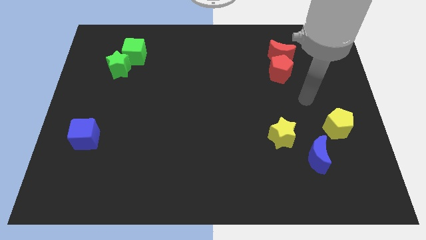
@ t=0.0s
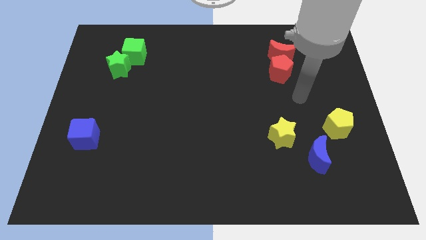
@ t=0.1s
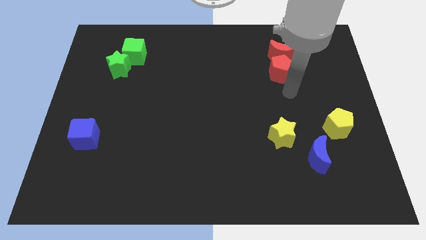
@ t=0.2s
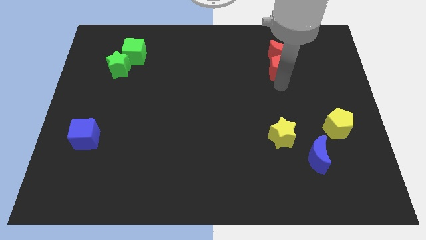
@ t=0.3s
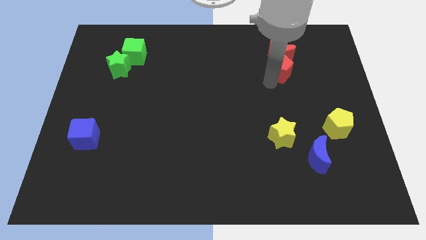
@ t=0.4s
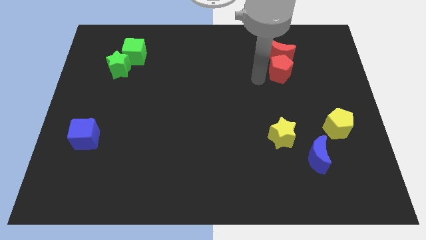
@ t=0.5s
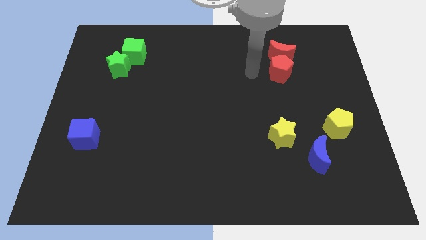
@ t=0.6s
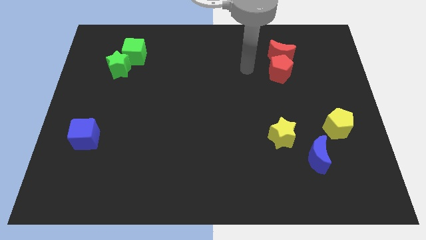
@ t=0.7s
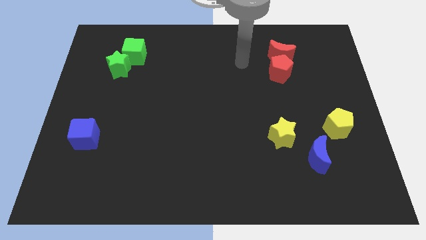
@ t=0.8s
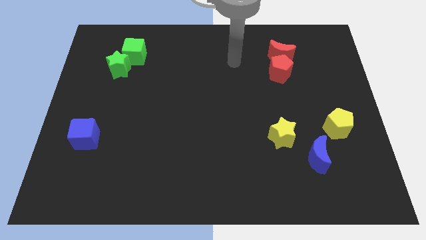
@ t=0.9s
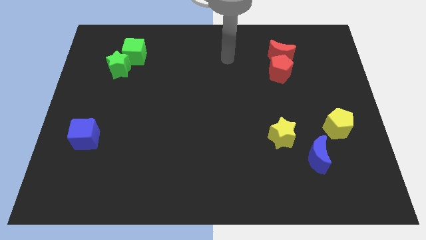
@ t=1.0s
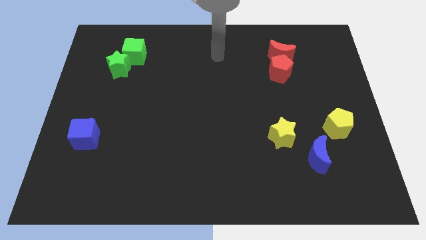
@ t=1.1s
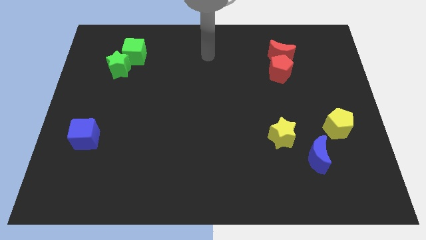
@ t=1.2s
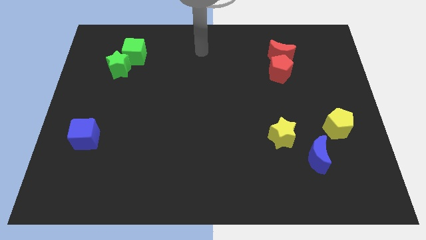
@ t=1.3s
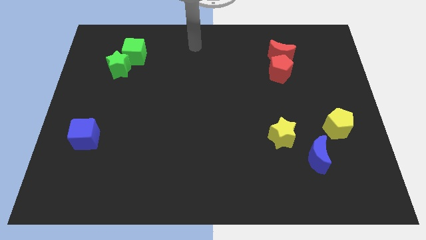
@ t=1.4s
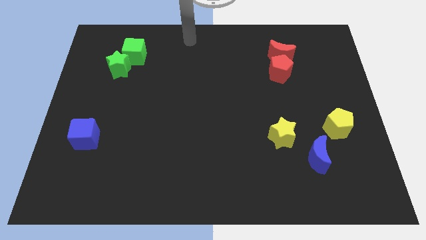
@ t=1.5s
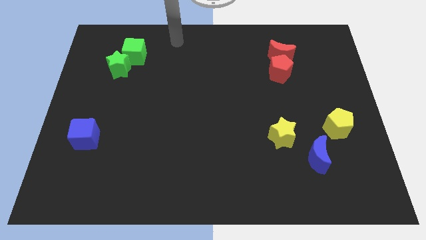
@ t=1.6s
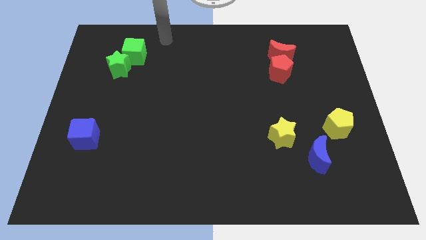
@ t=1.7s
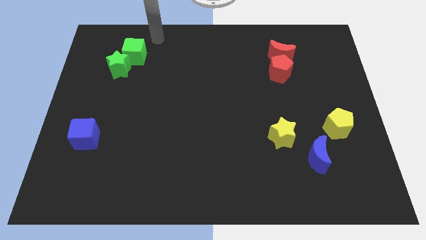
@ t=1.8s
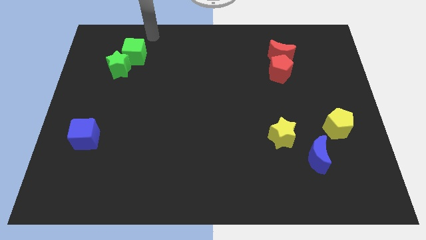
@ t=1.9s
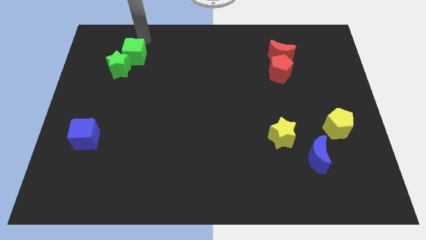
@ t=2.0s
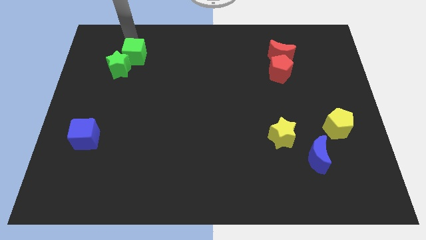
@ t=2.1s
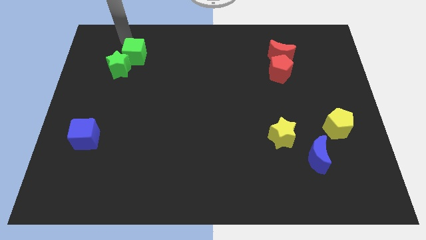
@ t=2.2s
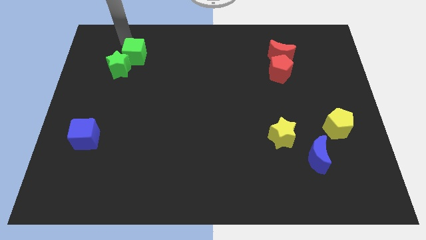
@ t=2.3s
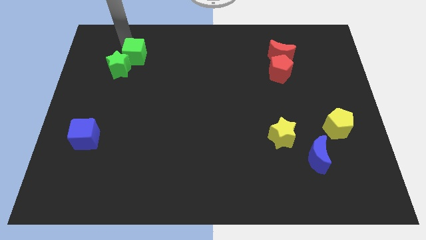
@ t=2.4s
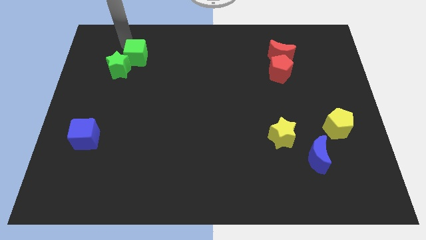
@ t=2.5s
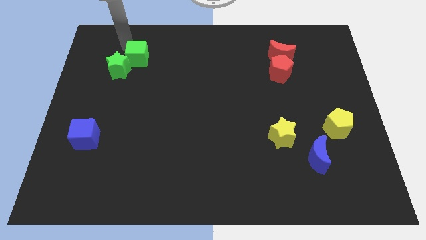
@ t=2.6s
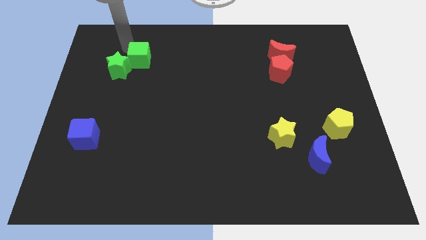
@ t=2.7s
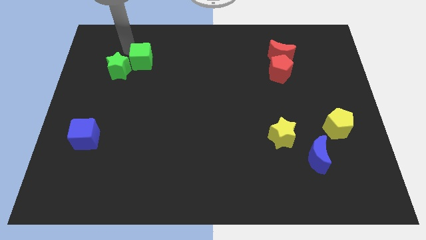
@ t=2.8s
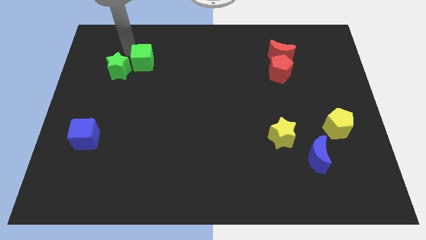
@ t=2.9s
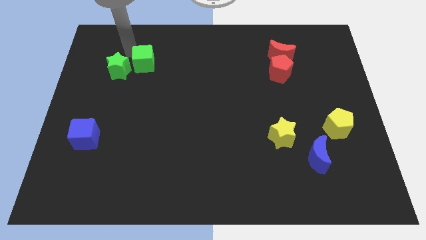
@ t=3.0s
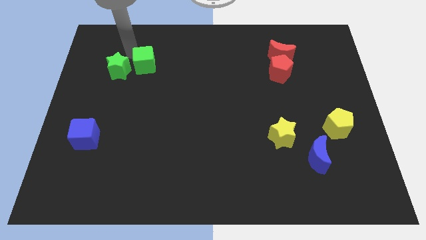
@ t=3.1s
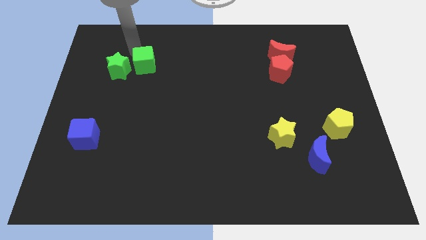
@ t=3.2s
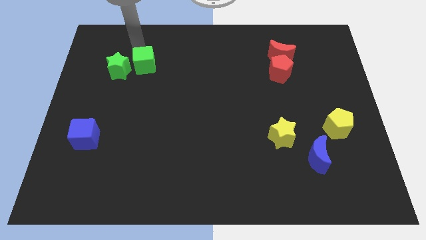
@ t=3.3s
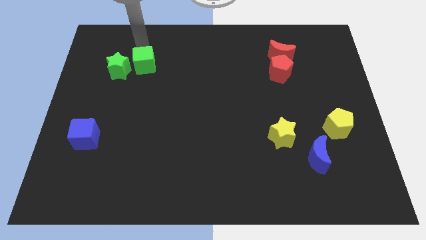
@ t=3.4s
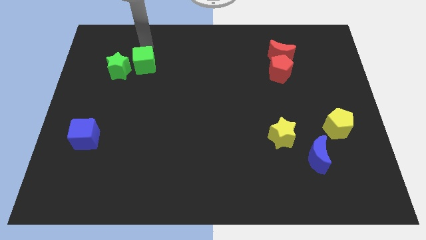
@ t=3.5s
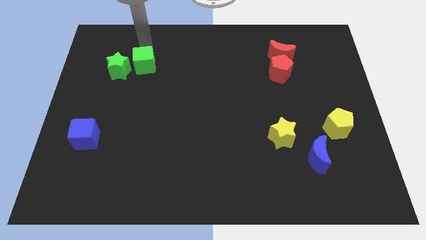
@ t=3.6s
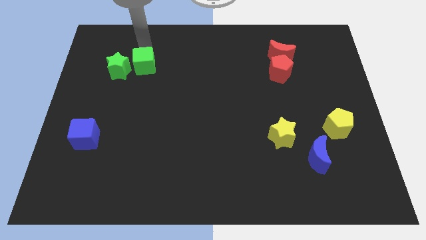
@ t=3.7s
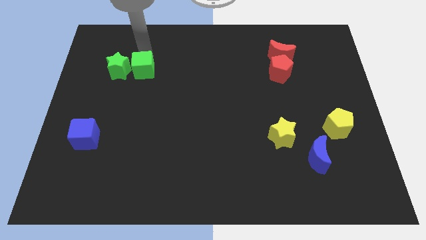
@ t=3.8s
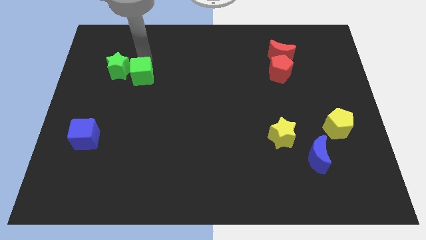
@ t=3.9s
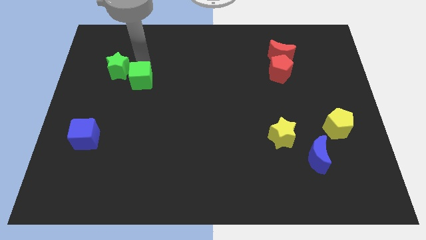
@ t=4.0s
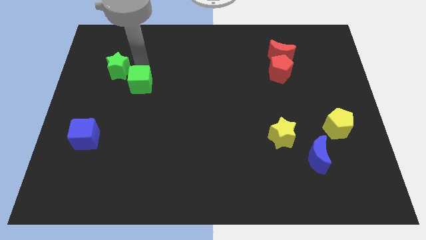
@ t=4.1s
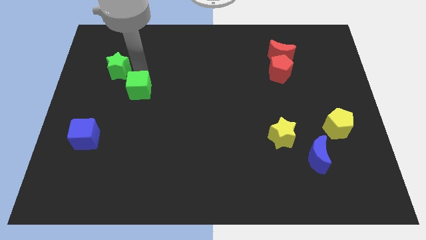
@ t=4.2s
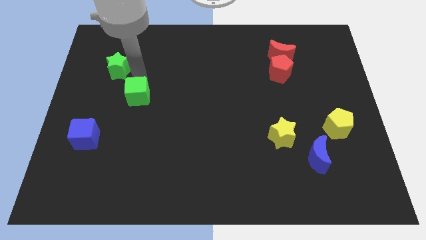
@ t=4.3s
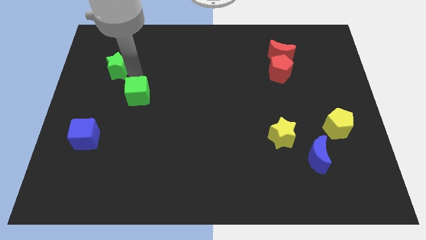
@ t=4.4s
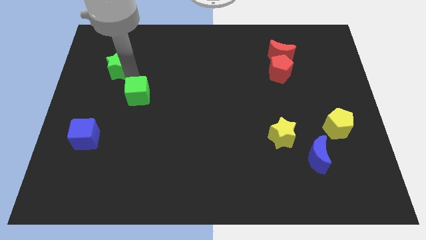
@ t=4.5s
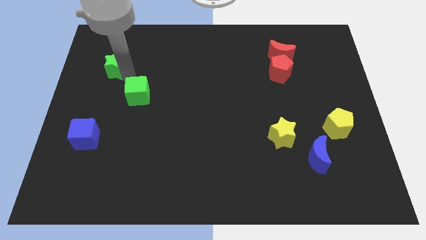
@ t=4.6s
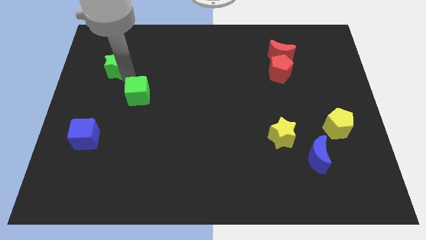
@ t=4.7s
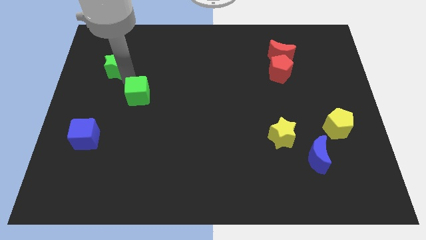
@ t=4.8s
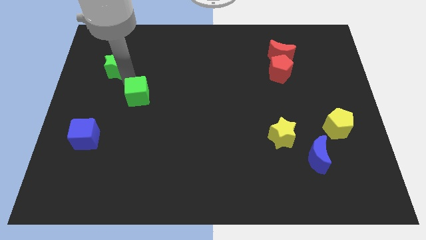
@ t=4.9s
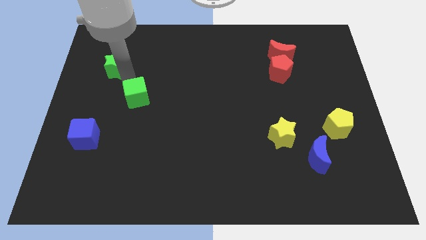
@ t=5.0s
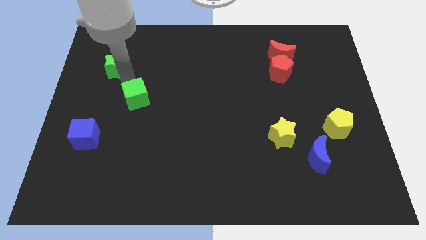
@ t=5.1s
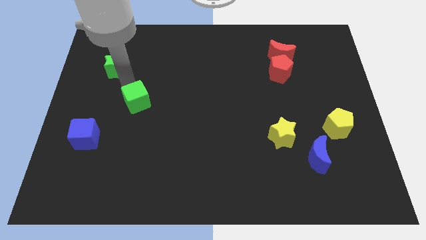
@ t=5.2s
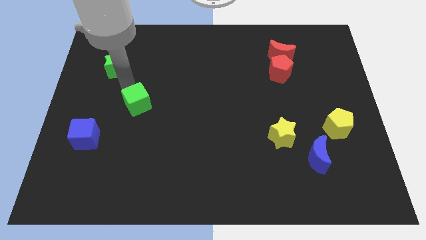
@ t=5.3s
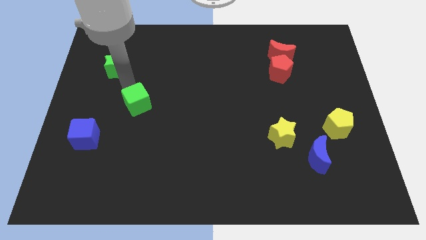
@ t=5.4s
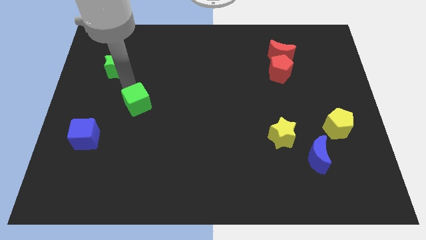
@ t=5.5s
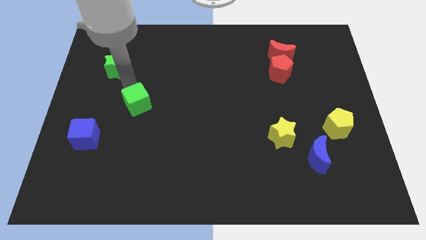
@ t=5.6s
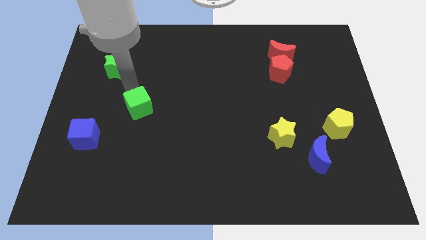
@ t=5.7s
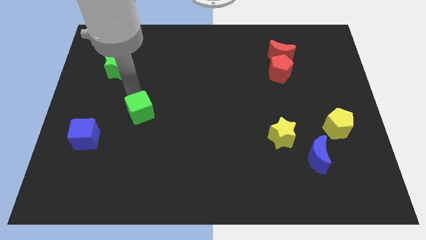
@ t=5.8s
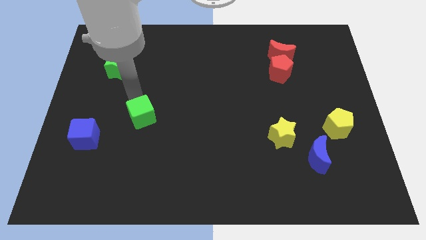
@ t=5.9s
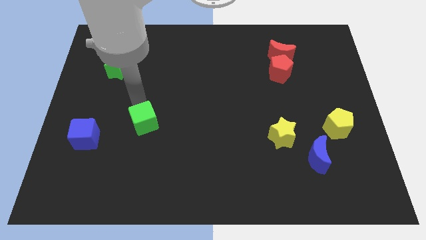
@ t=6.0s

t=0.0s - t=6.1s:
slide the green cube downwards

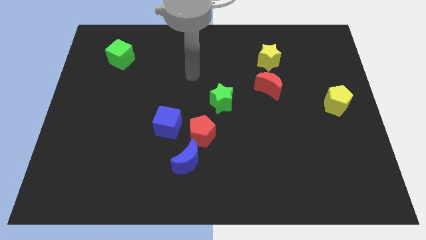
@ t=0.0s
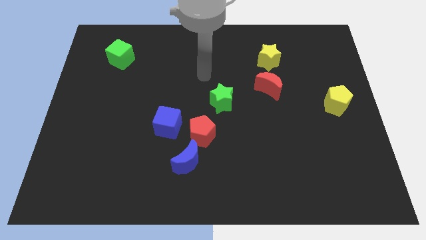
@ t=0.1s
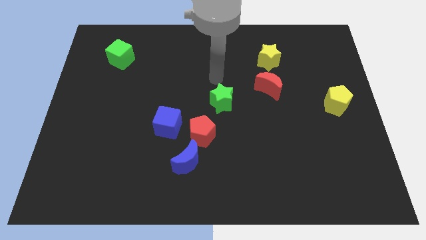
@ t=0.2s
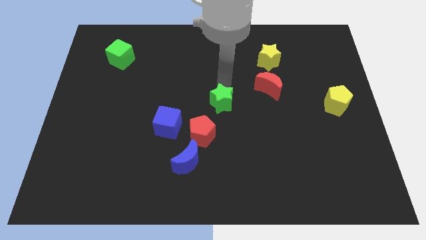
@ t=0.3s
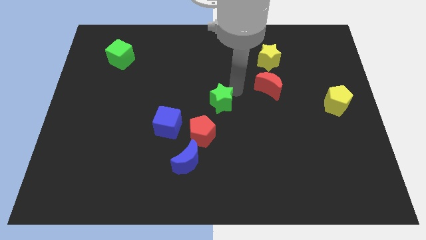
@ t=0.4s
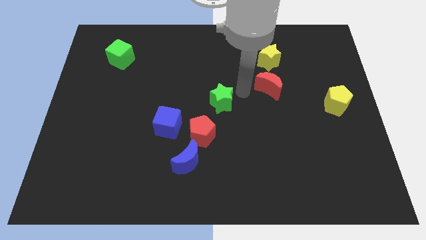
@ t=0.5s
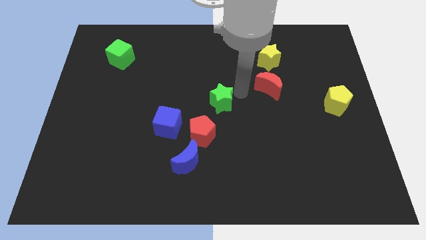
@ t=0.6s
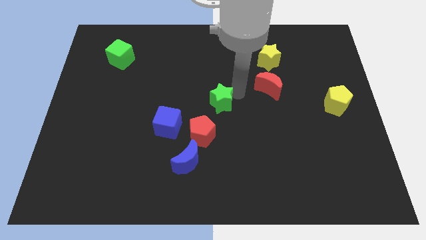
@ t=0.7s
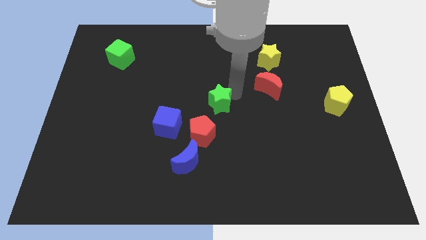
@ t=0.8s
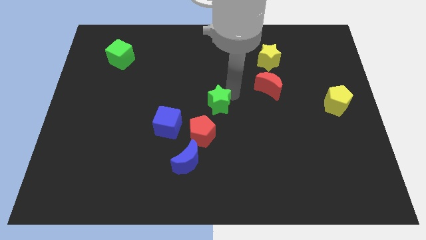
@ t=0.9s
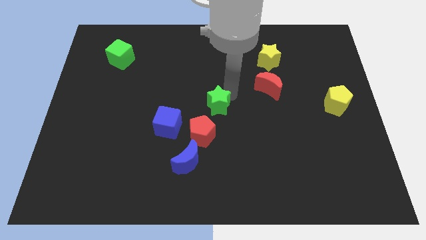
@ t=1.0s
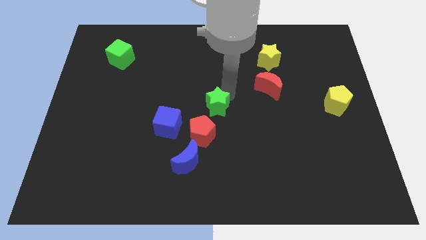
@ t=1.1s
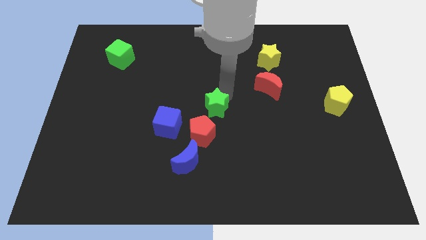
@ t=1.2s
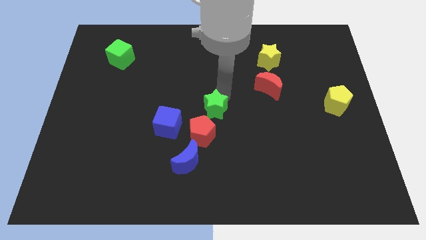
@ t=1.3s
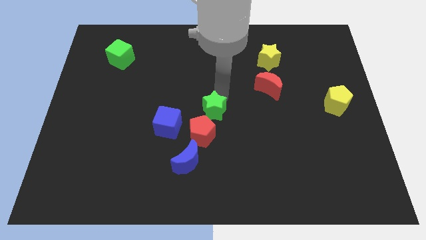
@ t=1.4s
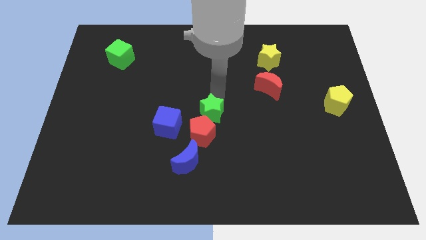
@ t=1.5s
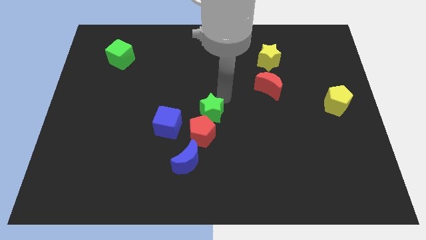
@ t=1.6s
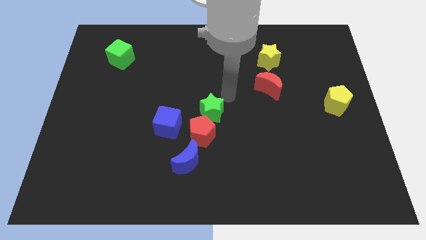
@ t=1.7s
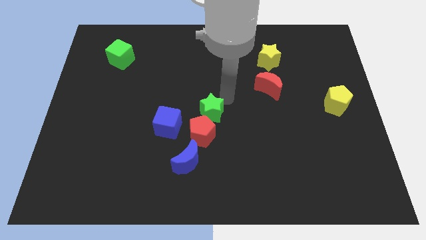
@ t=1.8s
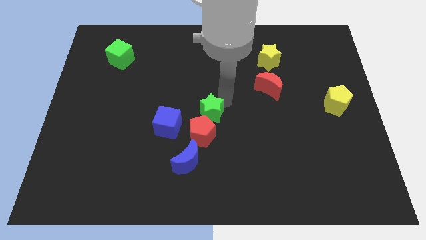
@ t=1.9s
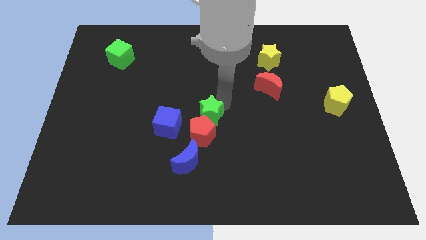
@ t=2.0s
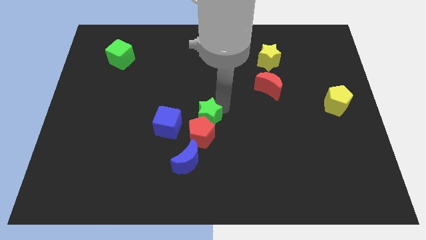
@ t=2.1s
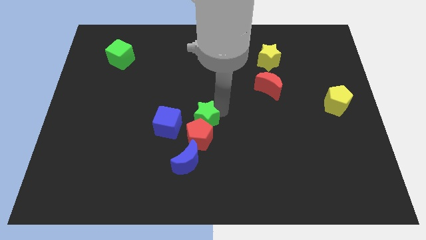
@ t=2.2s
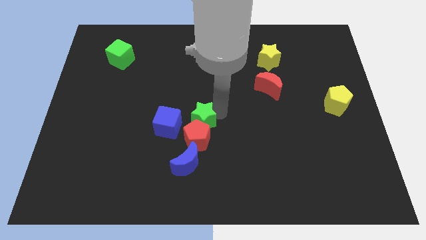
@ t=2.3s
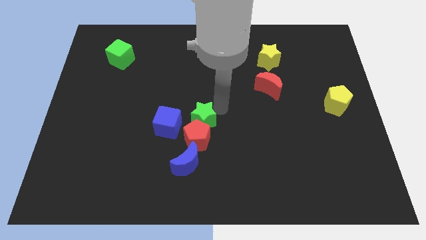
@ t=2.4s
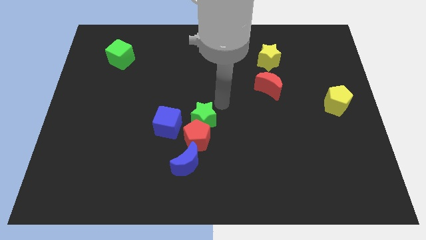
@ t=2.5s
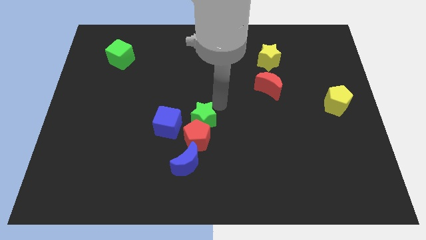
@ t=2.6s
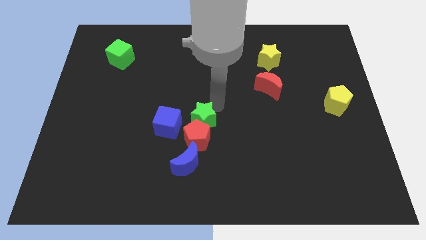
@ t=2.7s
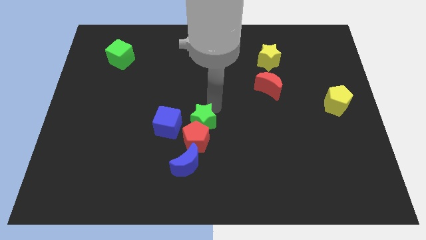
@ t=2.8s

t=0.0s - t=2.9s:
push the green star a little bit down and then to the left
